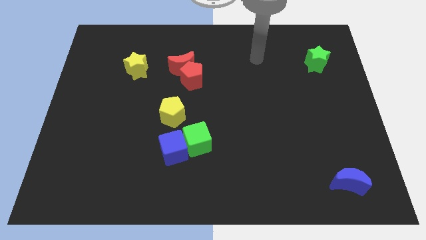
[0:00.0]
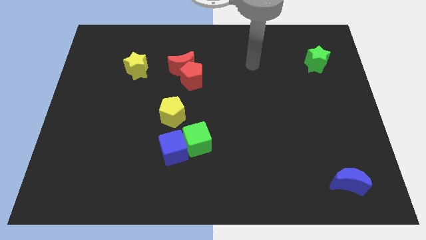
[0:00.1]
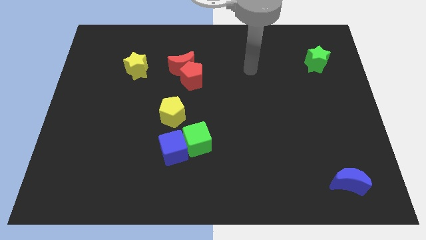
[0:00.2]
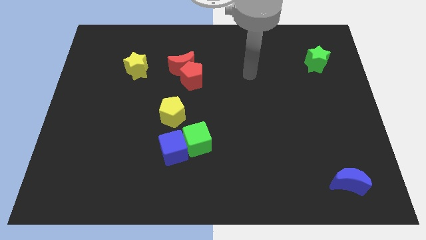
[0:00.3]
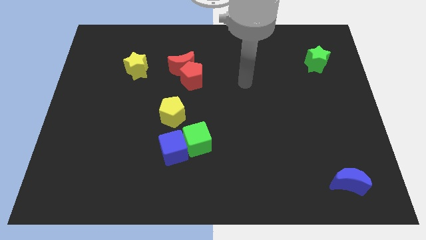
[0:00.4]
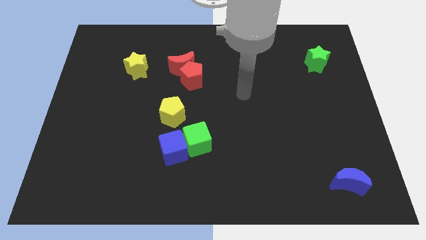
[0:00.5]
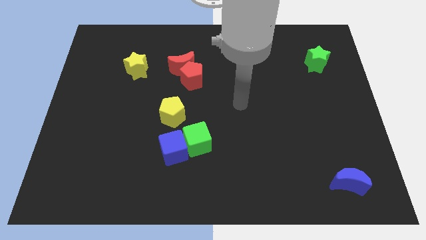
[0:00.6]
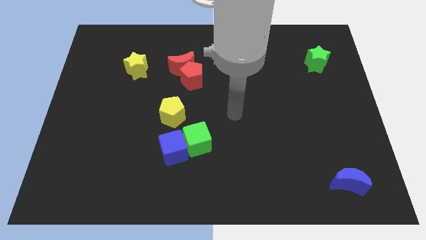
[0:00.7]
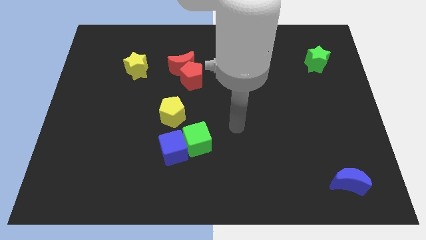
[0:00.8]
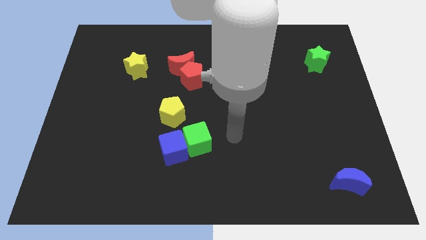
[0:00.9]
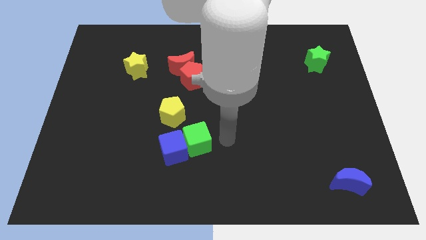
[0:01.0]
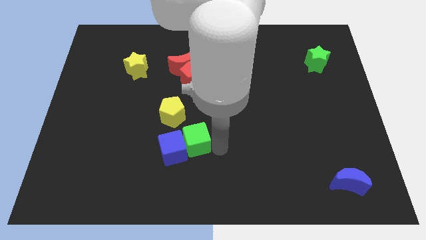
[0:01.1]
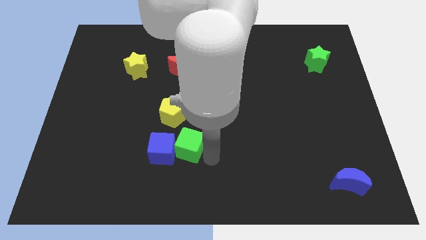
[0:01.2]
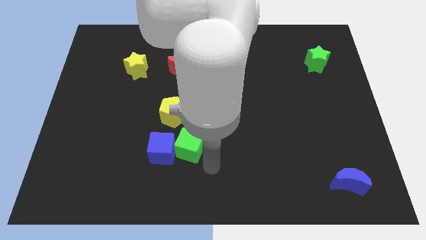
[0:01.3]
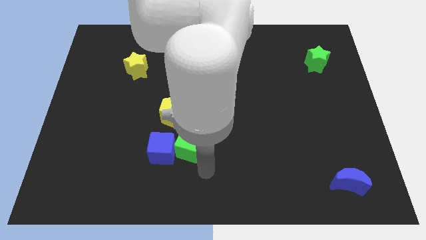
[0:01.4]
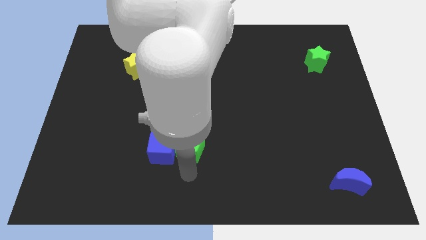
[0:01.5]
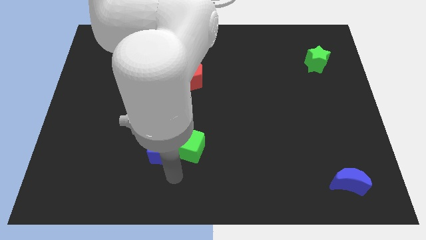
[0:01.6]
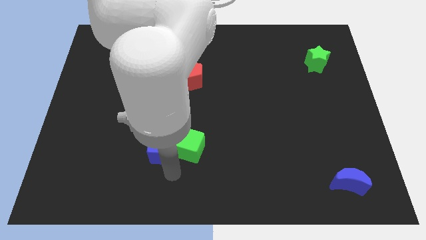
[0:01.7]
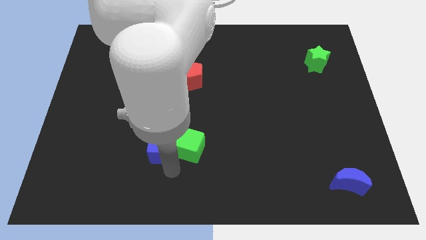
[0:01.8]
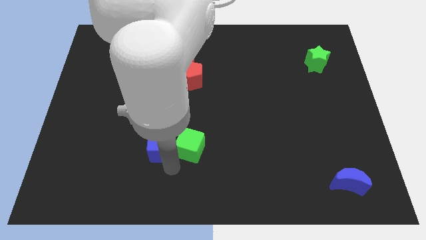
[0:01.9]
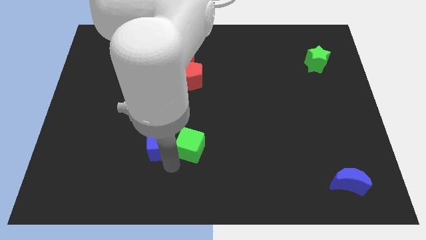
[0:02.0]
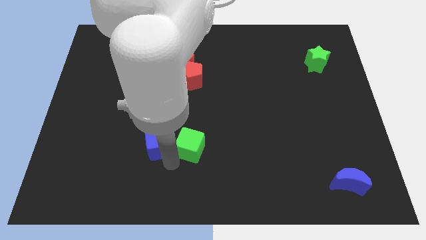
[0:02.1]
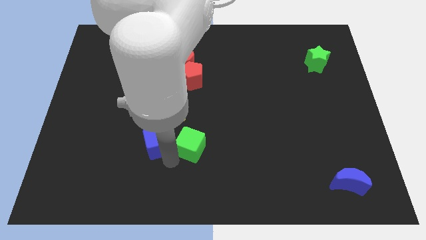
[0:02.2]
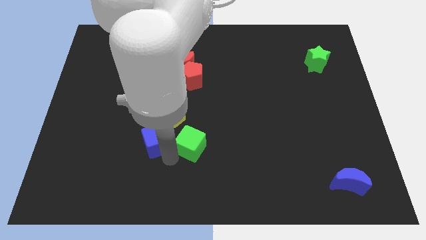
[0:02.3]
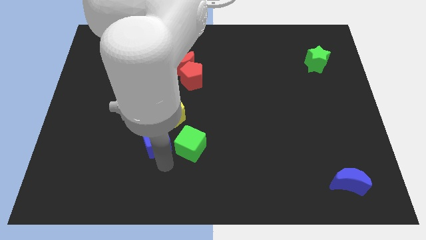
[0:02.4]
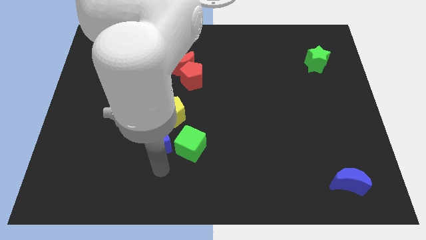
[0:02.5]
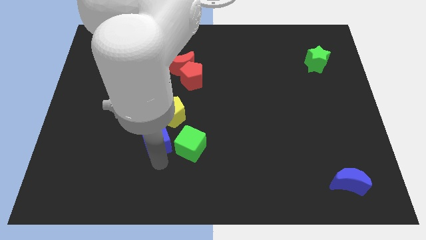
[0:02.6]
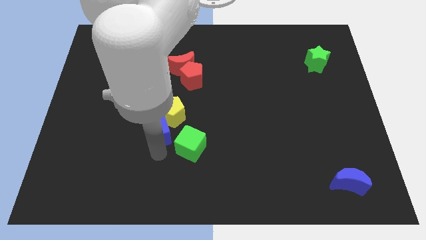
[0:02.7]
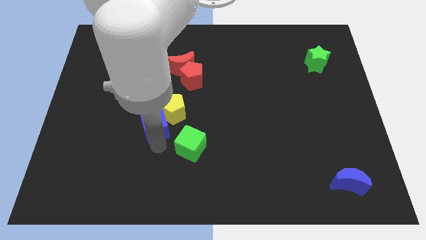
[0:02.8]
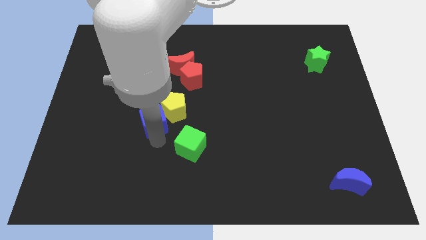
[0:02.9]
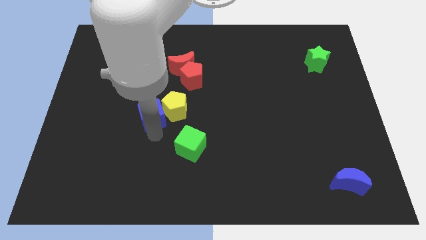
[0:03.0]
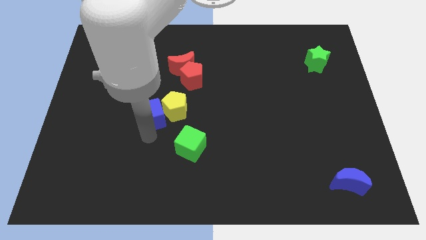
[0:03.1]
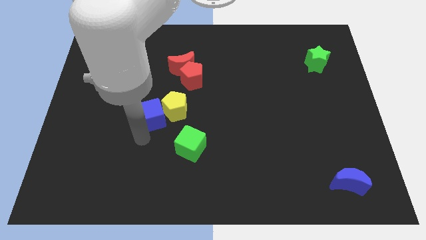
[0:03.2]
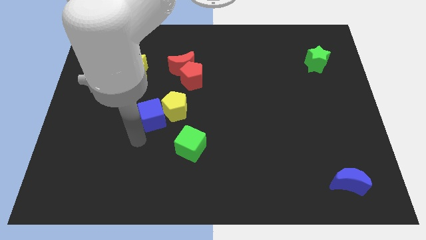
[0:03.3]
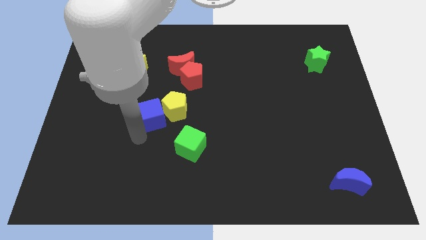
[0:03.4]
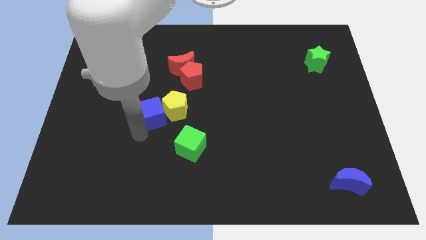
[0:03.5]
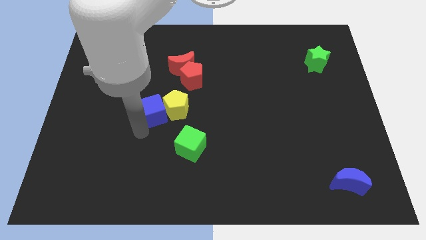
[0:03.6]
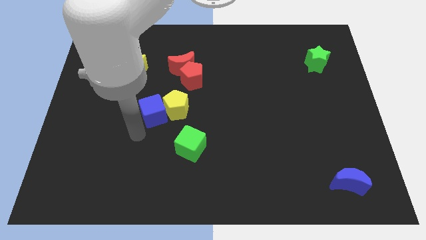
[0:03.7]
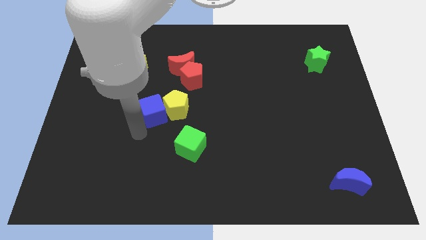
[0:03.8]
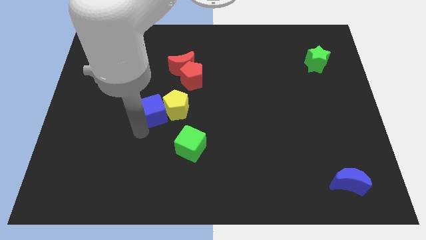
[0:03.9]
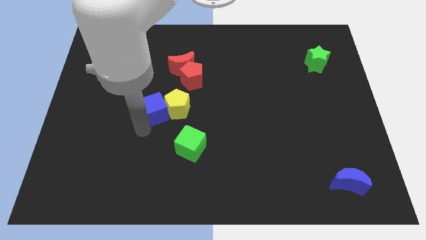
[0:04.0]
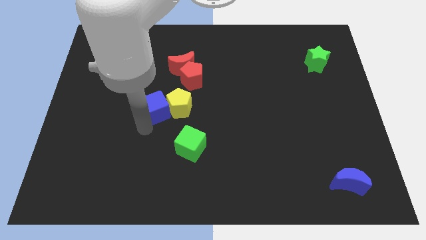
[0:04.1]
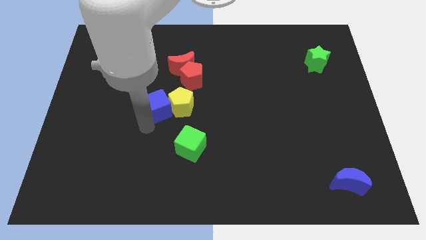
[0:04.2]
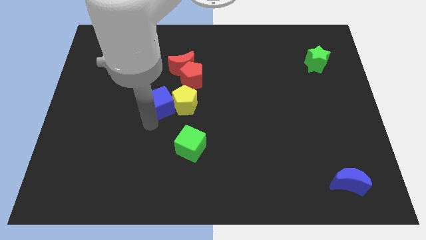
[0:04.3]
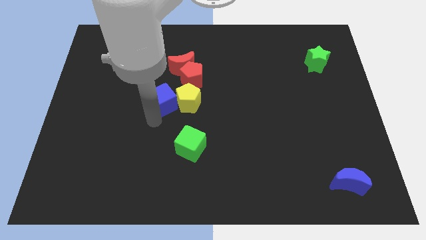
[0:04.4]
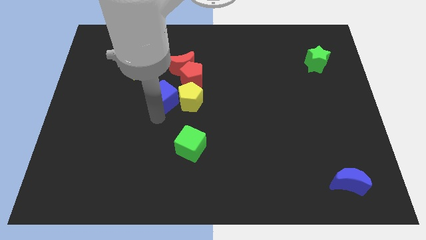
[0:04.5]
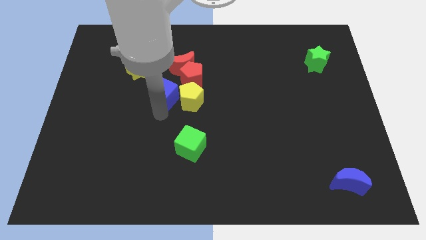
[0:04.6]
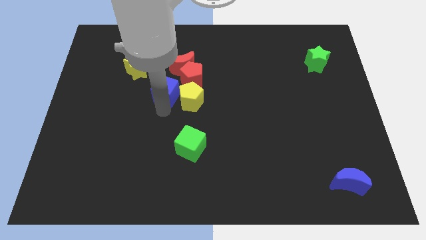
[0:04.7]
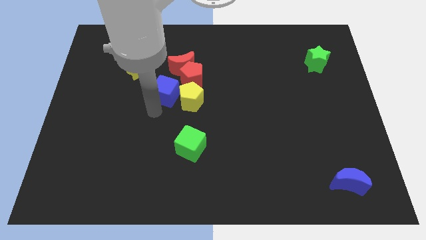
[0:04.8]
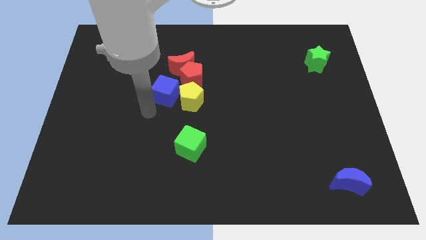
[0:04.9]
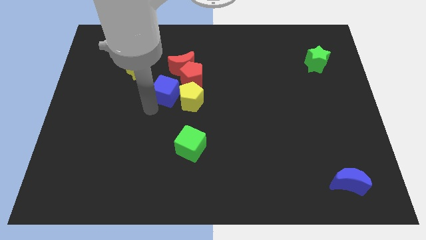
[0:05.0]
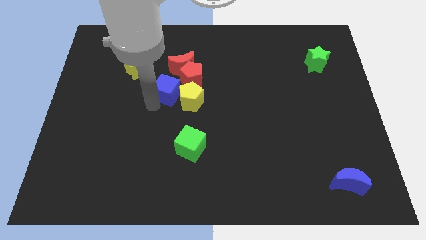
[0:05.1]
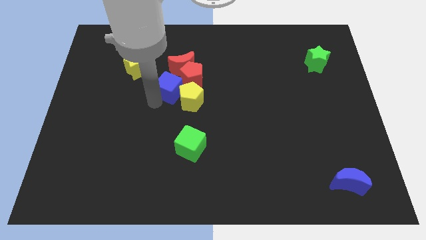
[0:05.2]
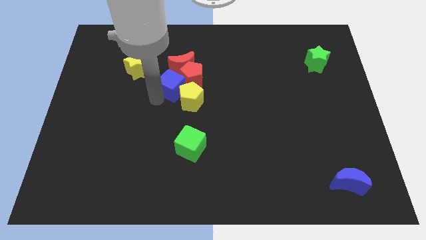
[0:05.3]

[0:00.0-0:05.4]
put the blue cube to the top side of the yellow pentagon

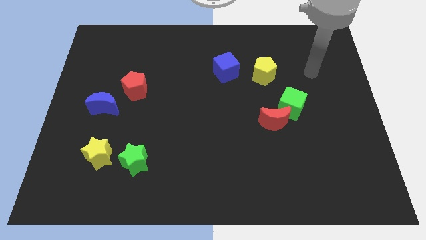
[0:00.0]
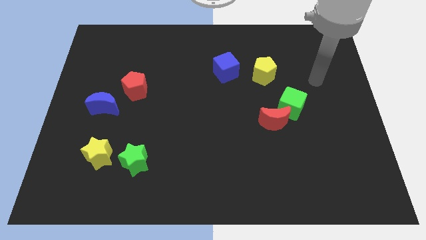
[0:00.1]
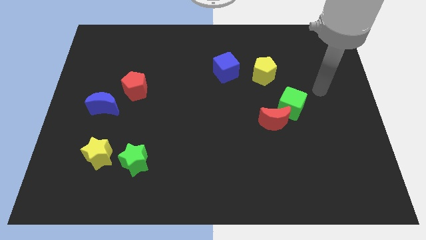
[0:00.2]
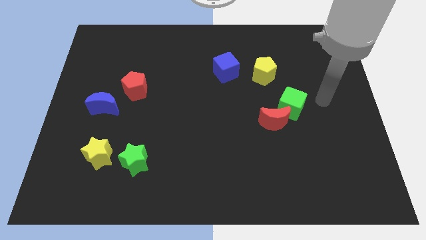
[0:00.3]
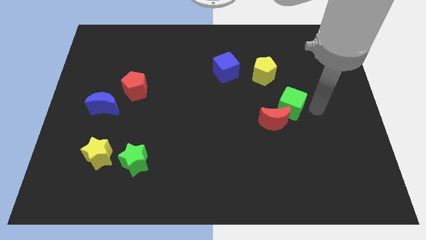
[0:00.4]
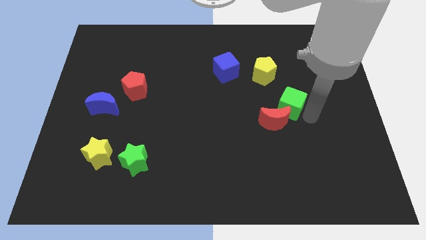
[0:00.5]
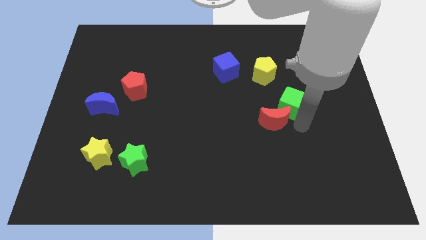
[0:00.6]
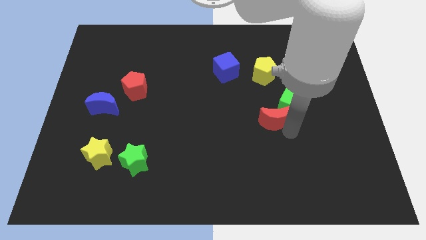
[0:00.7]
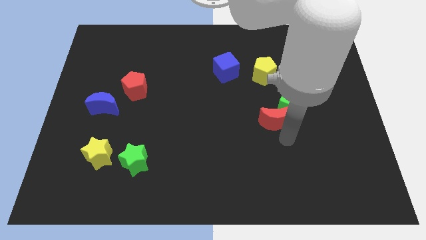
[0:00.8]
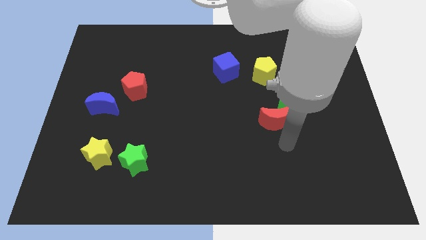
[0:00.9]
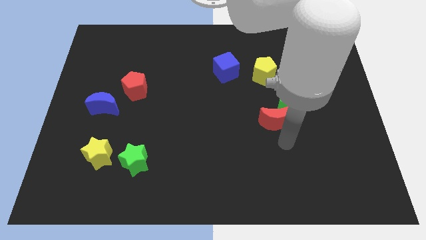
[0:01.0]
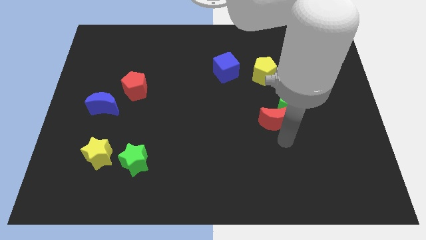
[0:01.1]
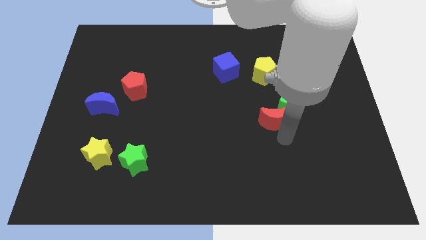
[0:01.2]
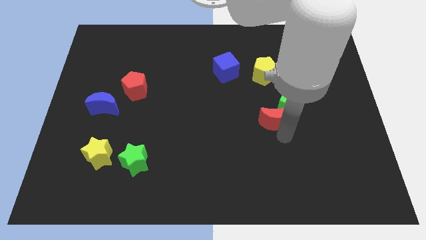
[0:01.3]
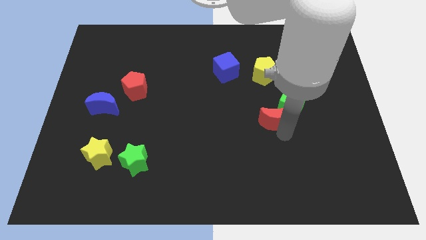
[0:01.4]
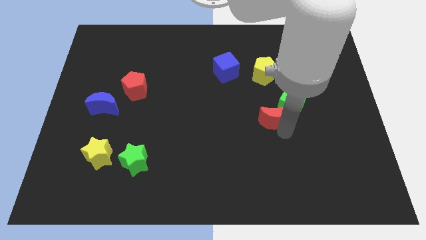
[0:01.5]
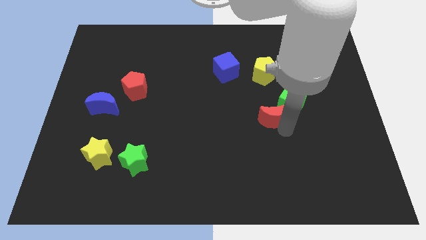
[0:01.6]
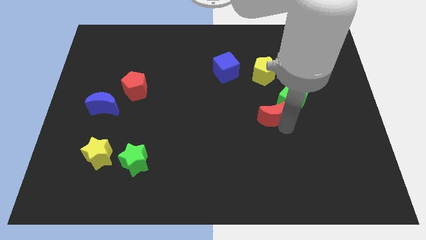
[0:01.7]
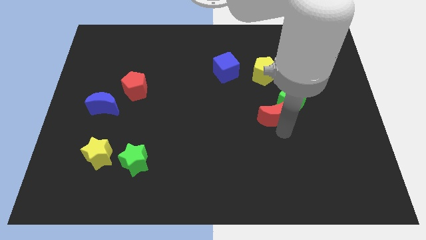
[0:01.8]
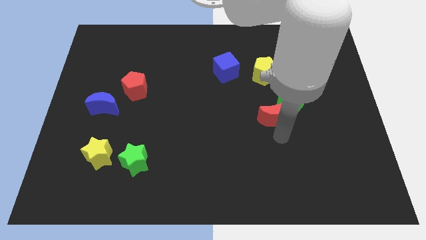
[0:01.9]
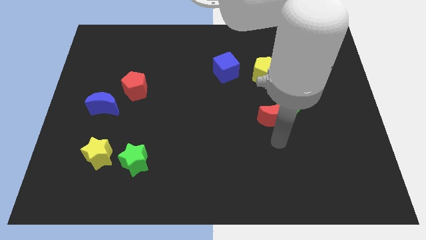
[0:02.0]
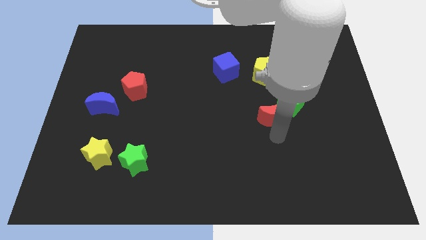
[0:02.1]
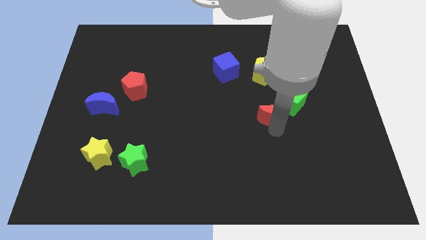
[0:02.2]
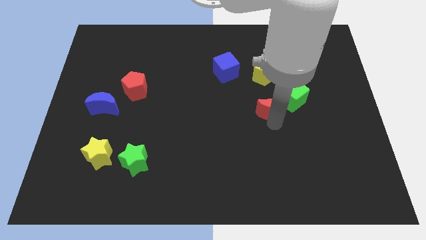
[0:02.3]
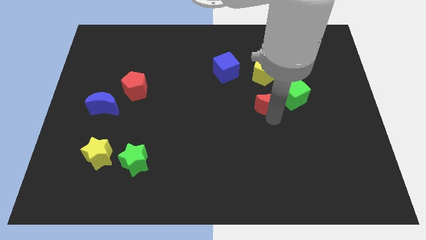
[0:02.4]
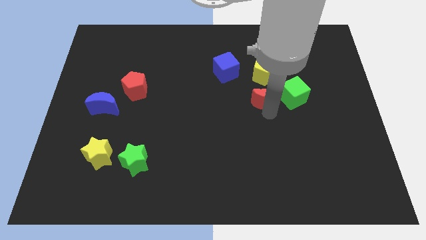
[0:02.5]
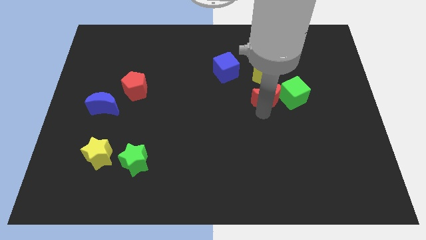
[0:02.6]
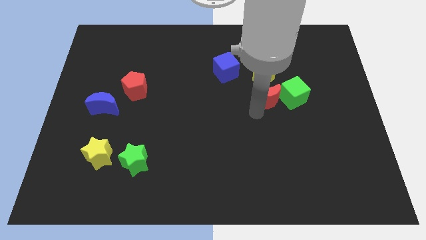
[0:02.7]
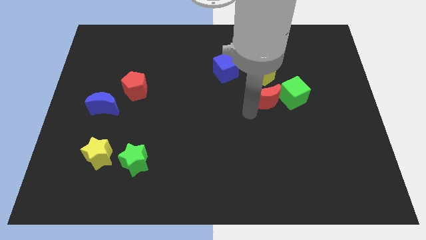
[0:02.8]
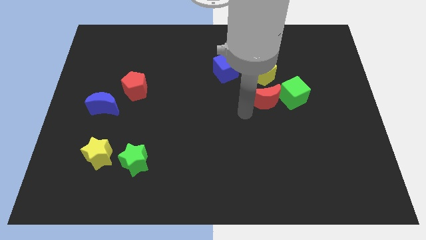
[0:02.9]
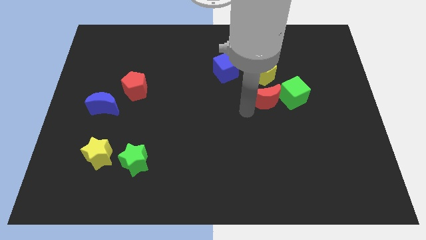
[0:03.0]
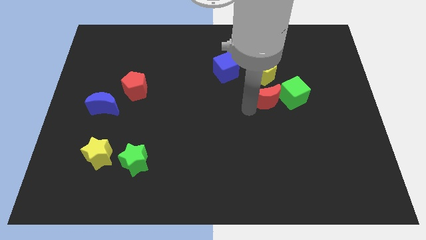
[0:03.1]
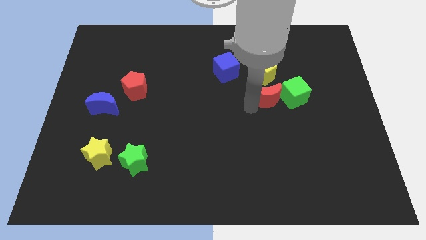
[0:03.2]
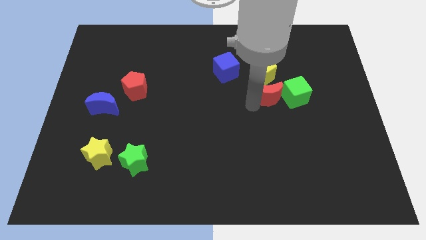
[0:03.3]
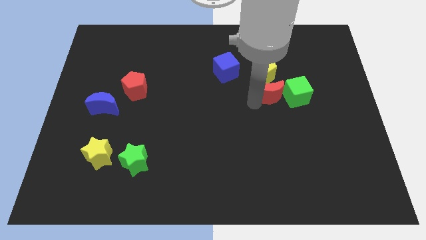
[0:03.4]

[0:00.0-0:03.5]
slide the red moon to the bottom right of the yellow pentagon
